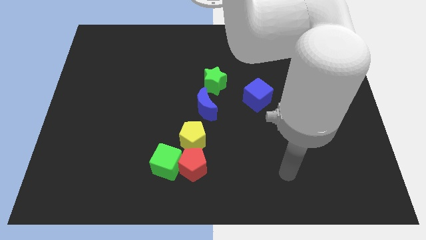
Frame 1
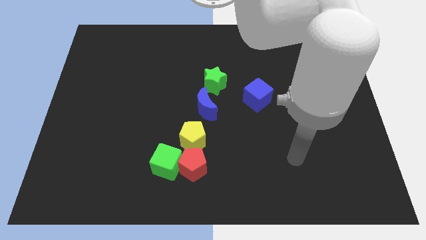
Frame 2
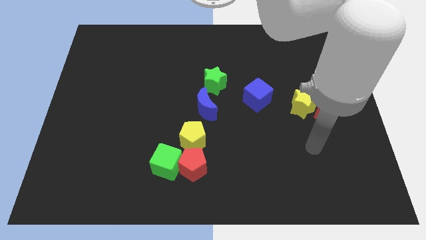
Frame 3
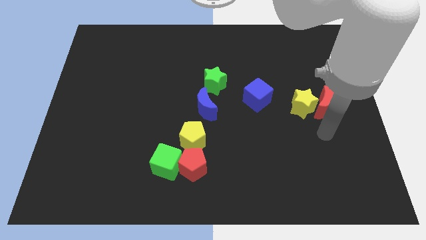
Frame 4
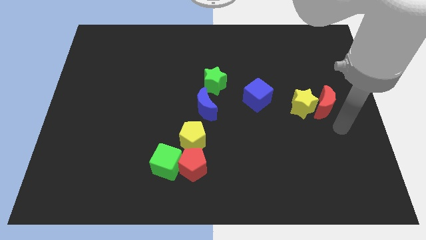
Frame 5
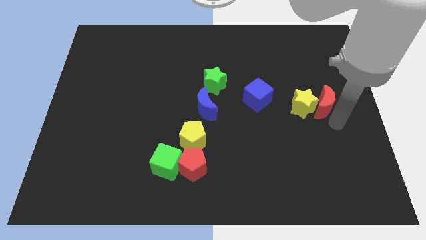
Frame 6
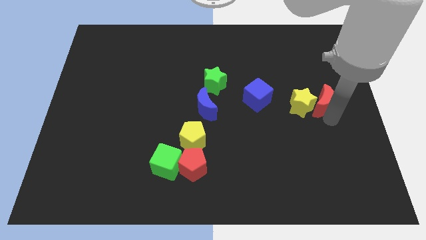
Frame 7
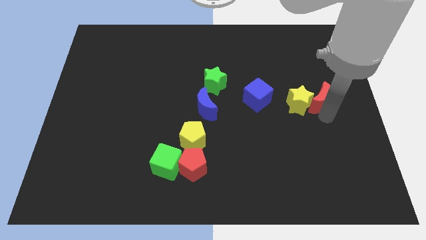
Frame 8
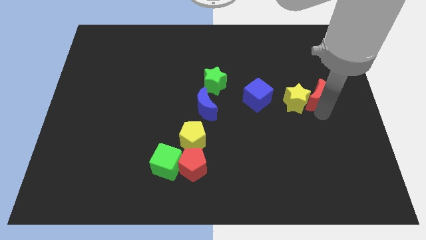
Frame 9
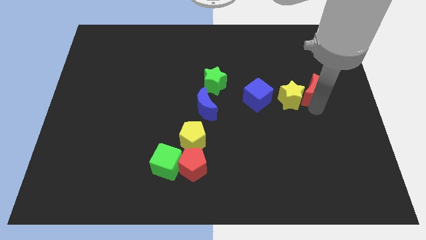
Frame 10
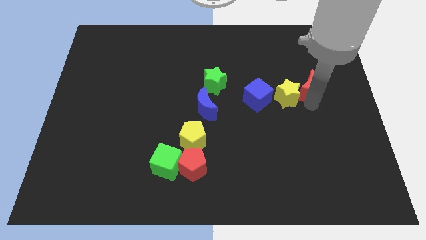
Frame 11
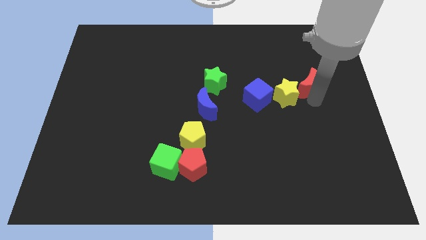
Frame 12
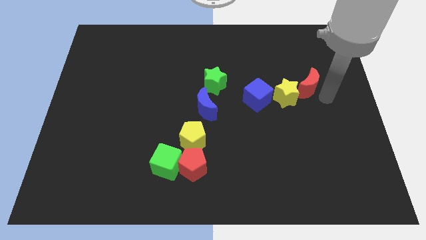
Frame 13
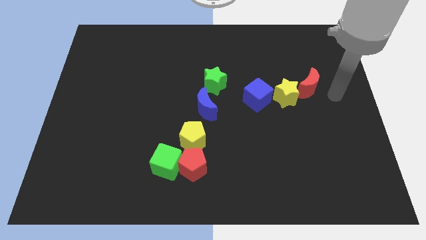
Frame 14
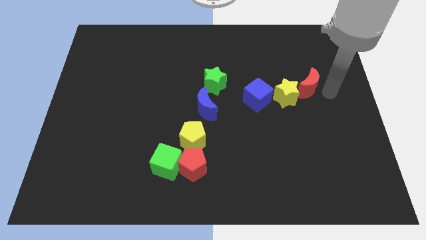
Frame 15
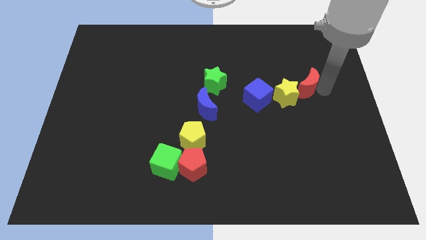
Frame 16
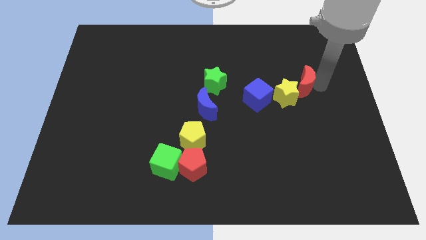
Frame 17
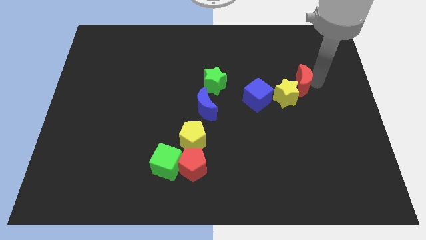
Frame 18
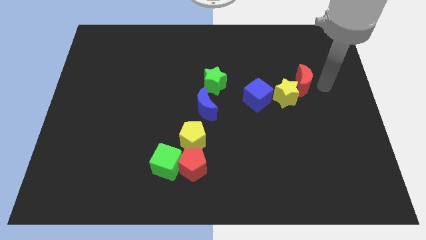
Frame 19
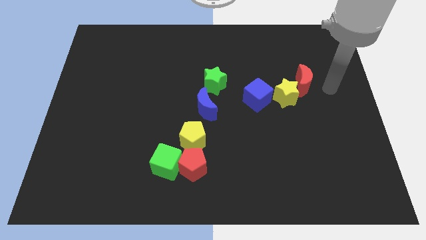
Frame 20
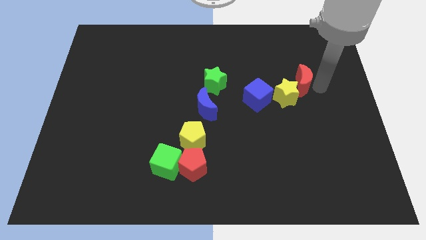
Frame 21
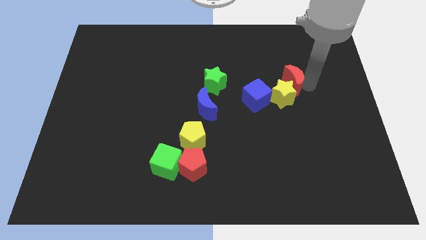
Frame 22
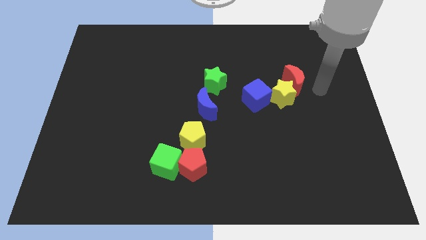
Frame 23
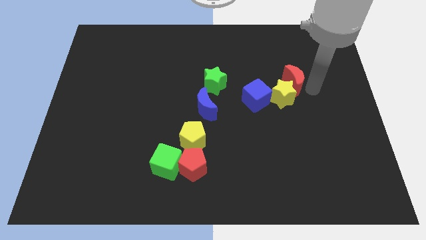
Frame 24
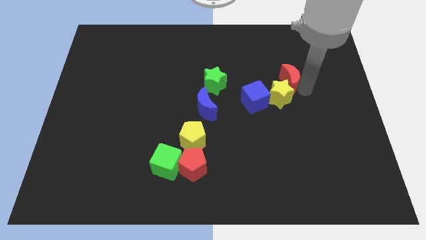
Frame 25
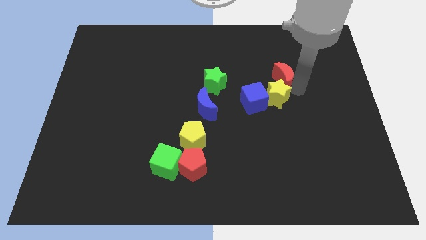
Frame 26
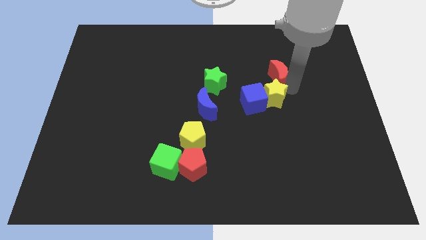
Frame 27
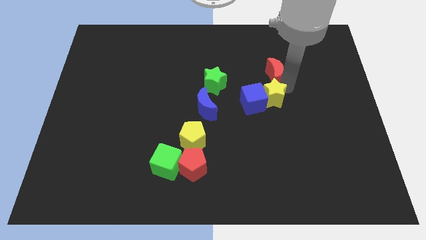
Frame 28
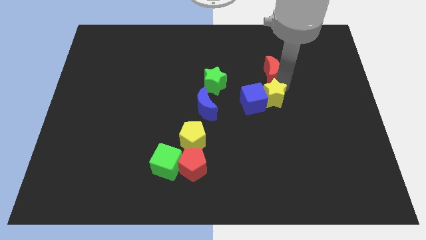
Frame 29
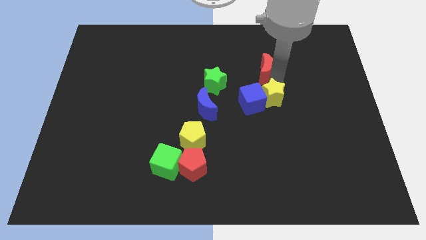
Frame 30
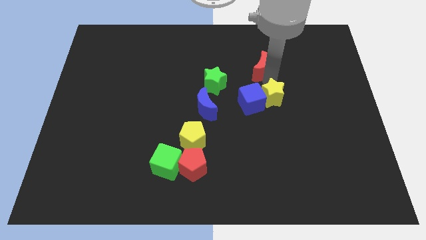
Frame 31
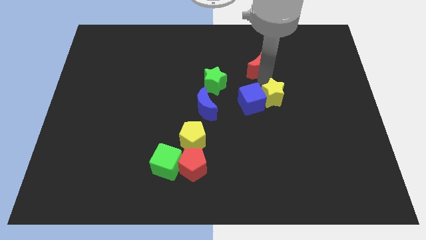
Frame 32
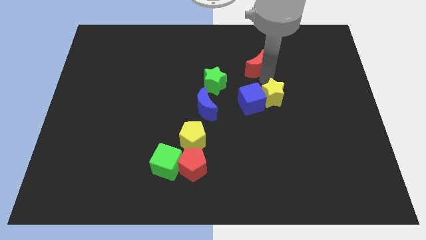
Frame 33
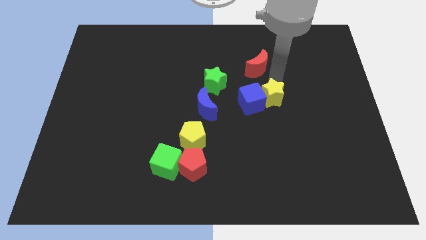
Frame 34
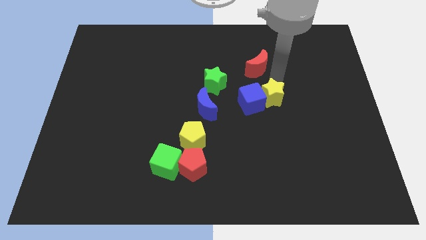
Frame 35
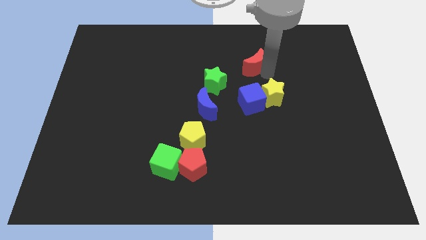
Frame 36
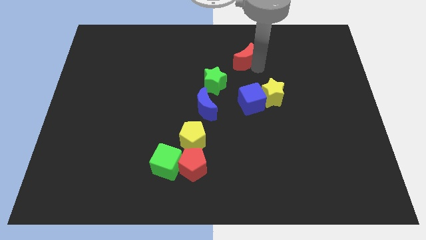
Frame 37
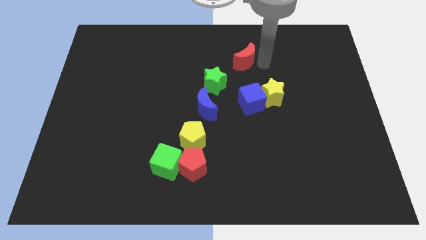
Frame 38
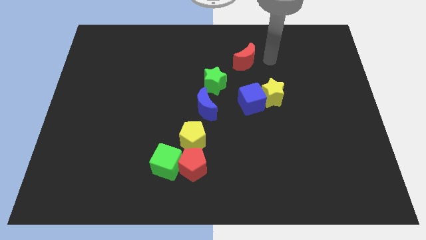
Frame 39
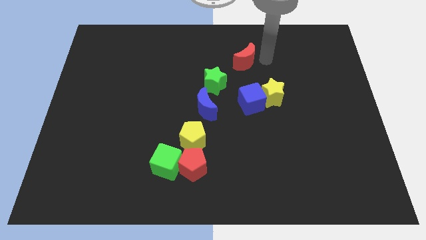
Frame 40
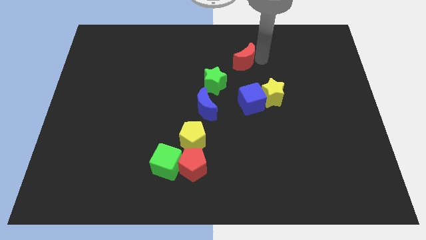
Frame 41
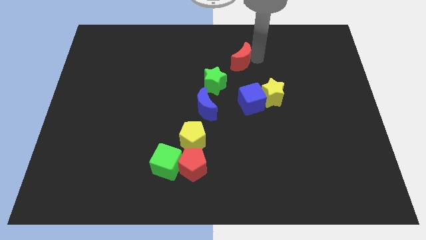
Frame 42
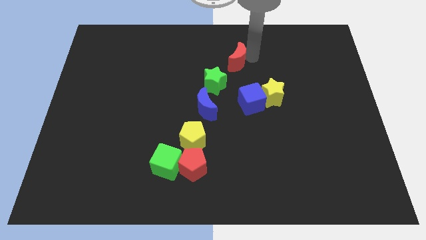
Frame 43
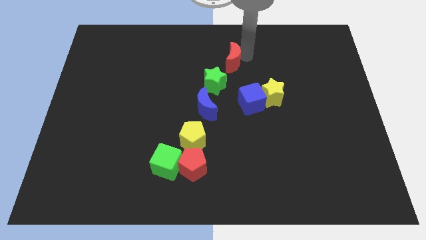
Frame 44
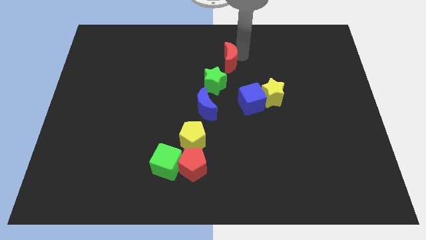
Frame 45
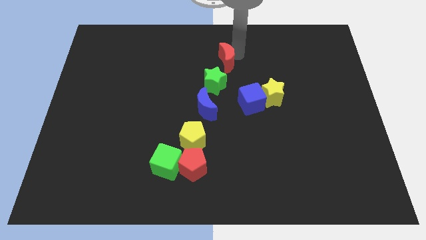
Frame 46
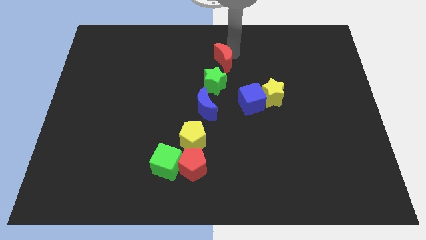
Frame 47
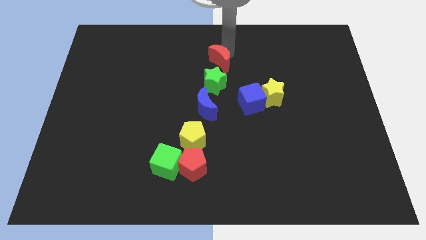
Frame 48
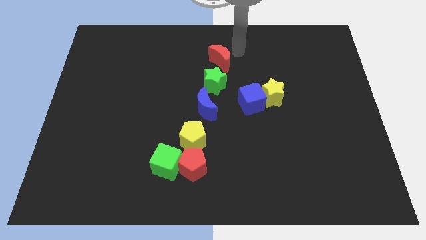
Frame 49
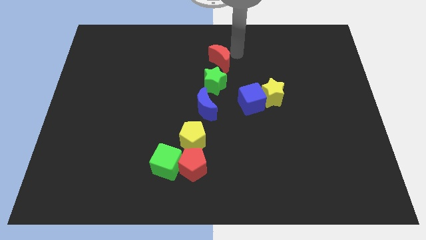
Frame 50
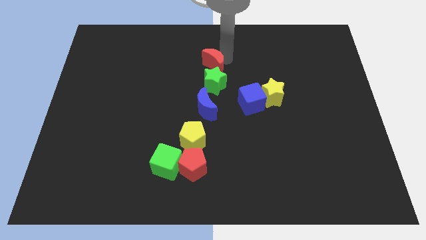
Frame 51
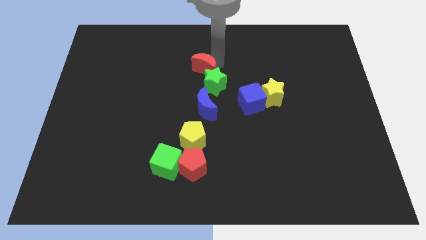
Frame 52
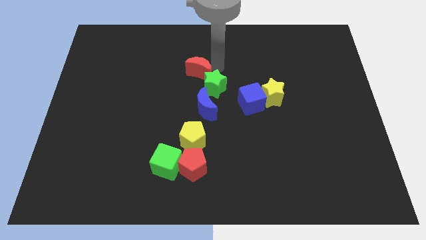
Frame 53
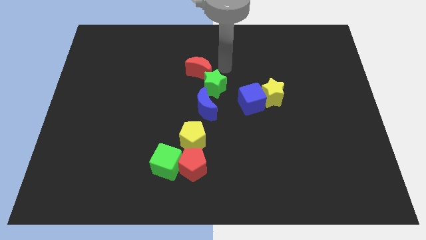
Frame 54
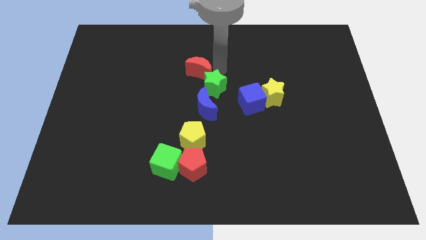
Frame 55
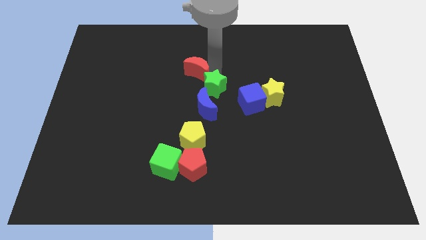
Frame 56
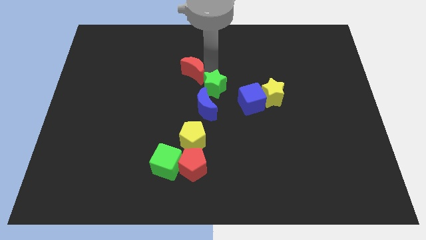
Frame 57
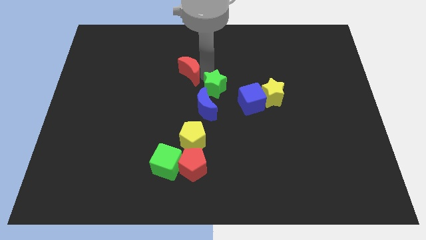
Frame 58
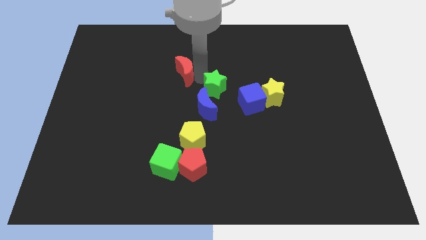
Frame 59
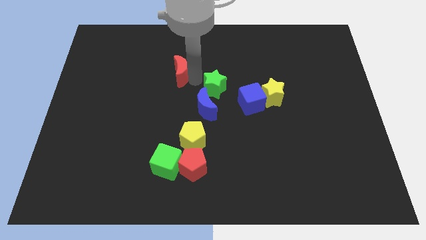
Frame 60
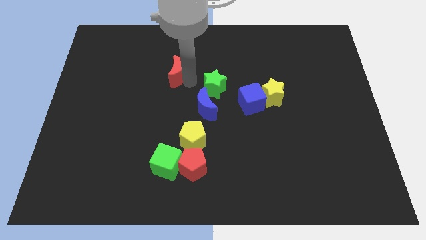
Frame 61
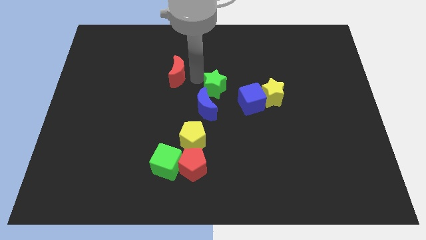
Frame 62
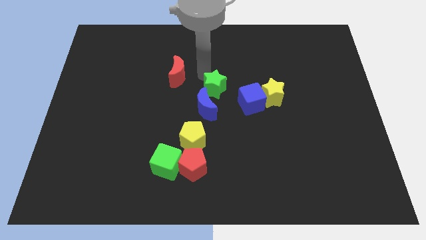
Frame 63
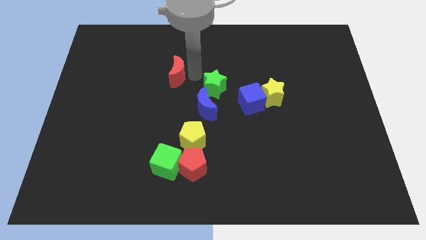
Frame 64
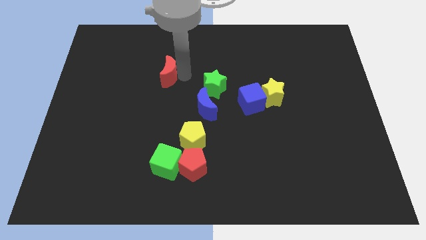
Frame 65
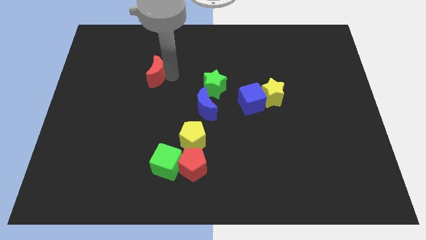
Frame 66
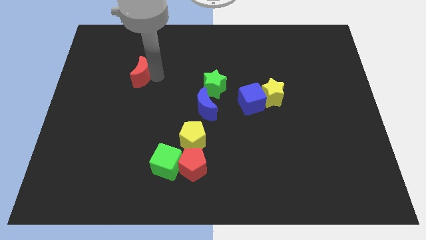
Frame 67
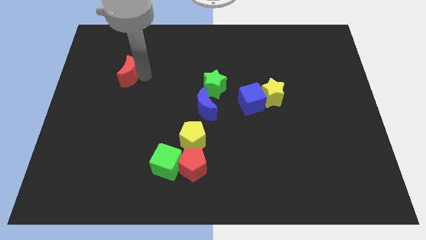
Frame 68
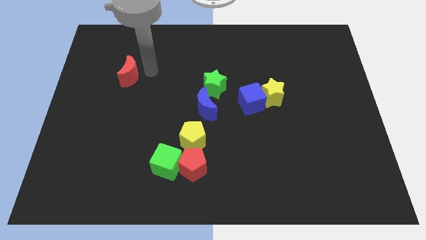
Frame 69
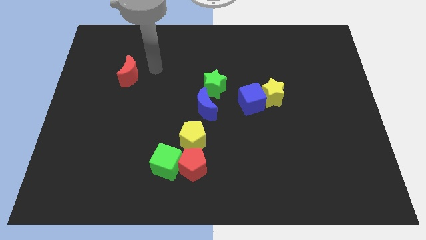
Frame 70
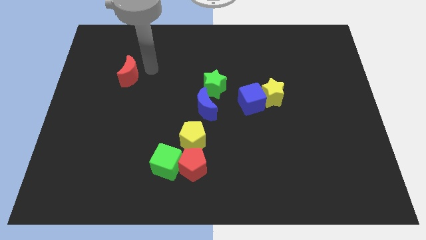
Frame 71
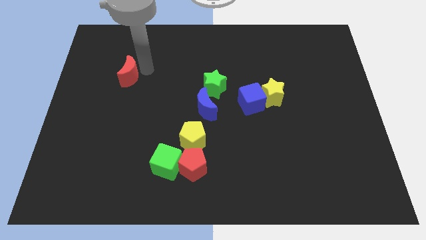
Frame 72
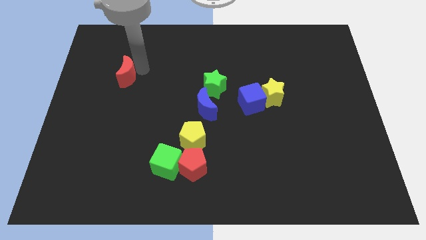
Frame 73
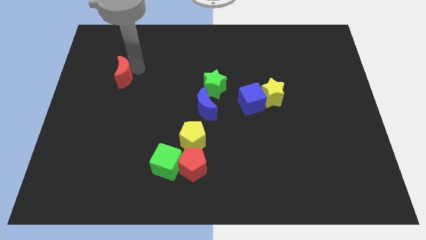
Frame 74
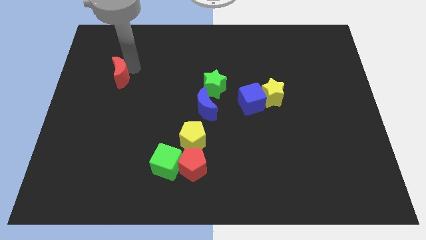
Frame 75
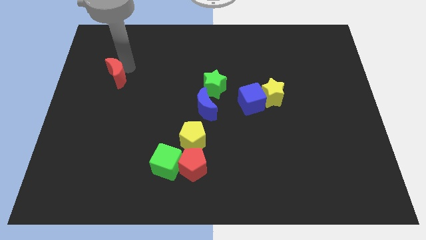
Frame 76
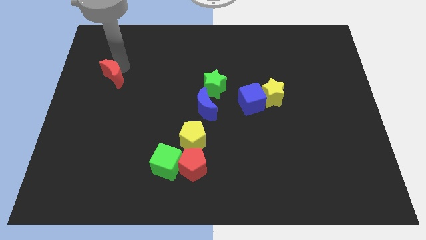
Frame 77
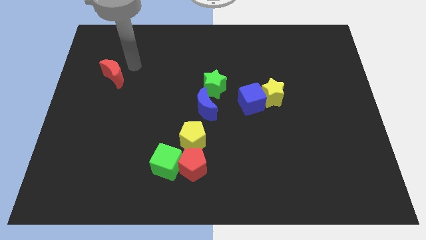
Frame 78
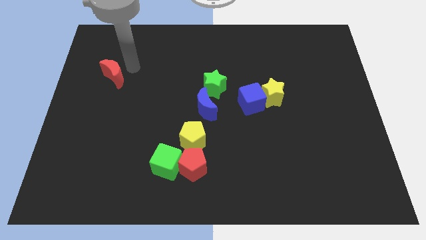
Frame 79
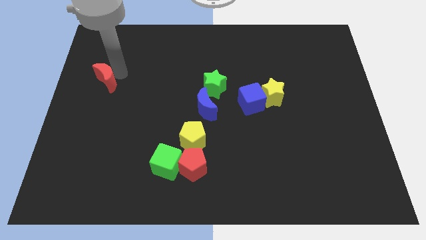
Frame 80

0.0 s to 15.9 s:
put the red moon to the center left
